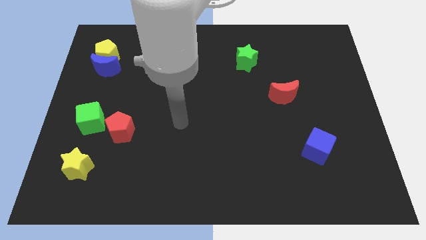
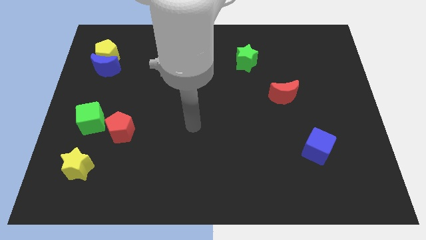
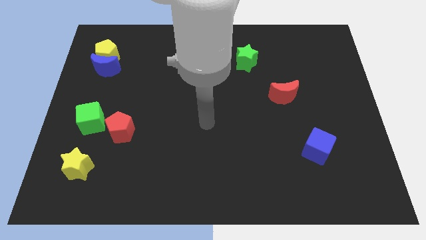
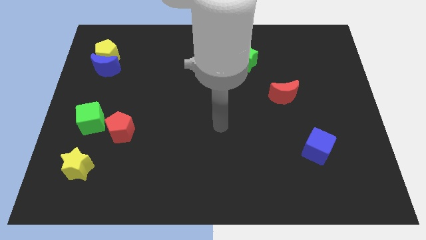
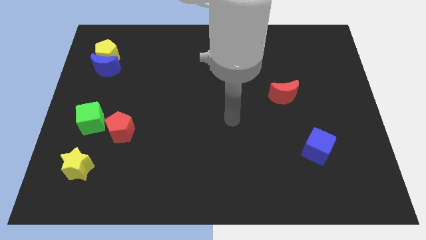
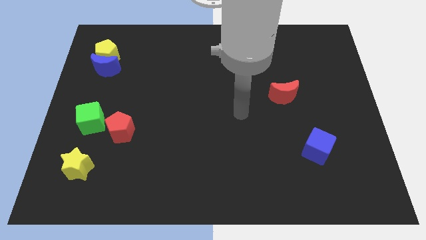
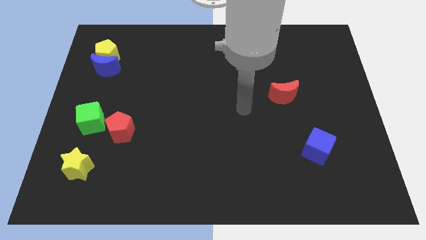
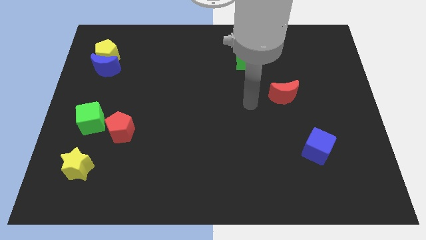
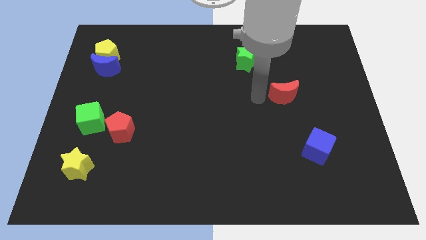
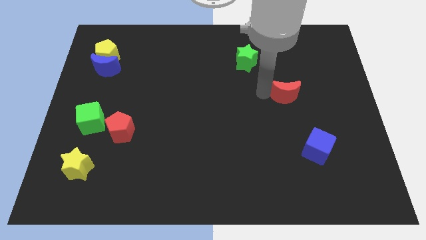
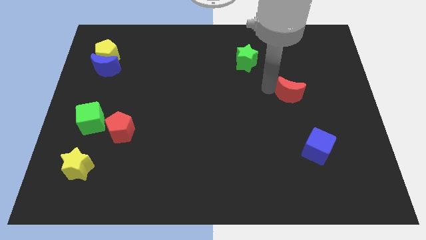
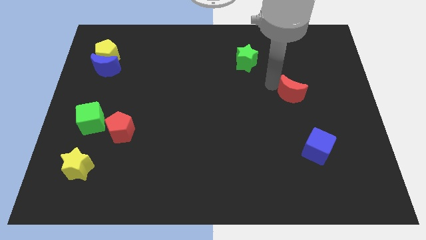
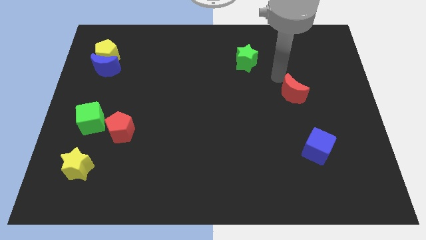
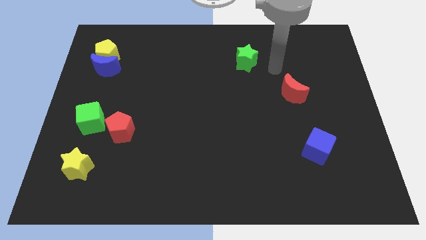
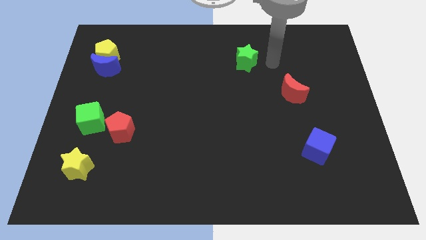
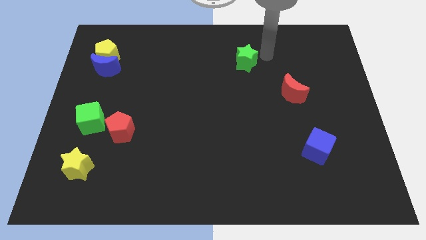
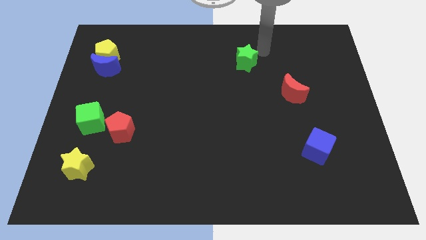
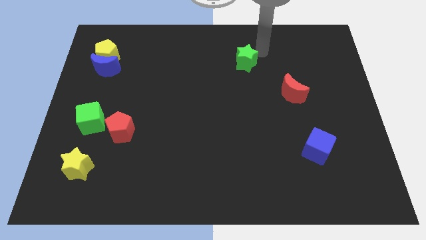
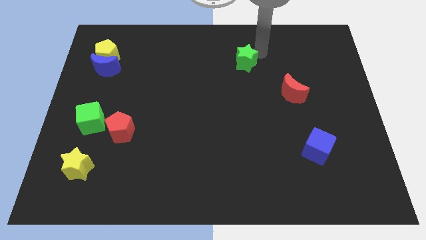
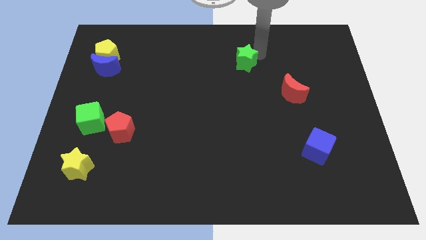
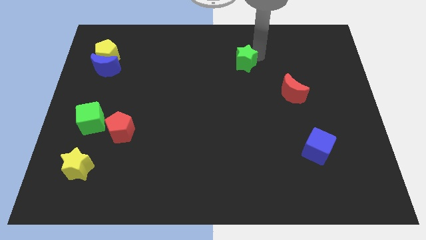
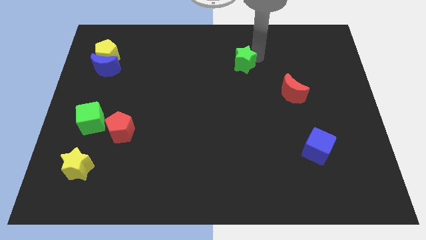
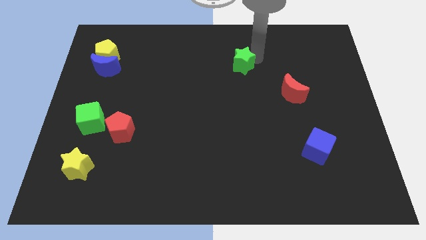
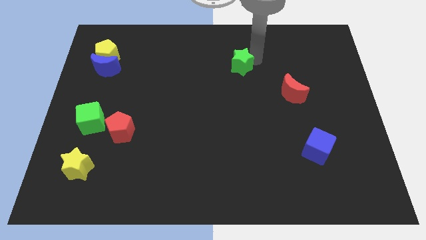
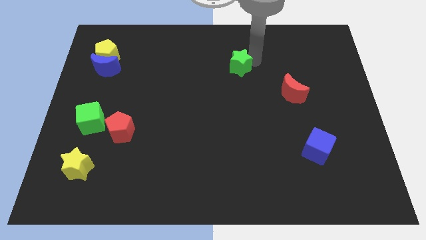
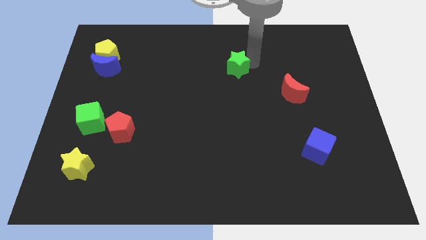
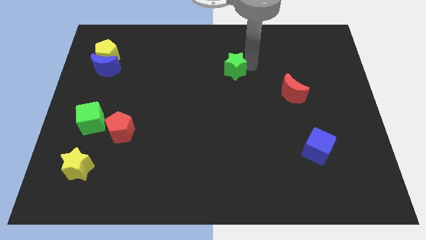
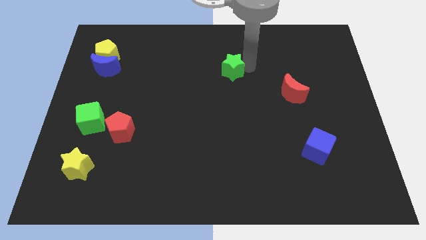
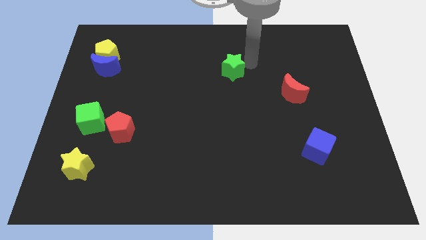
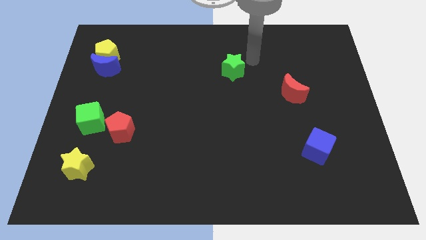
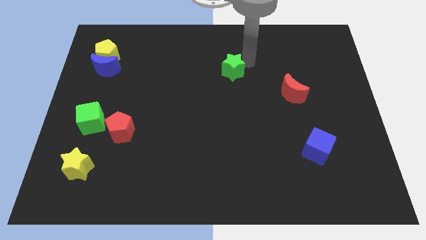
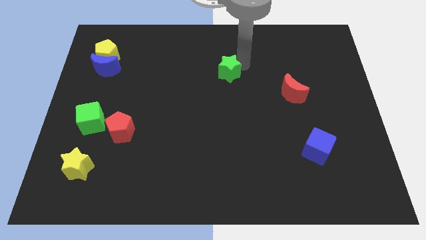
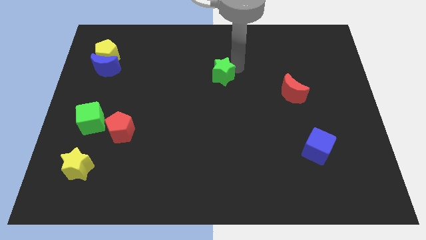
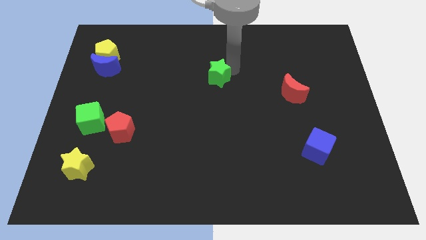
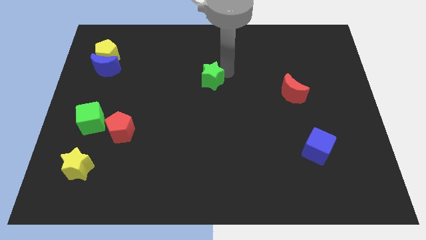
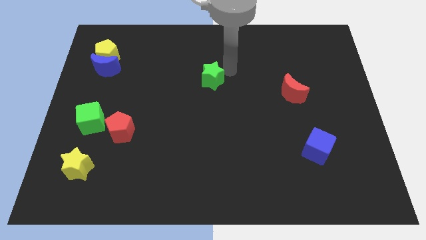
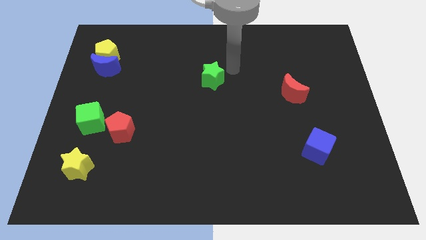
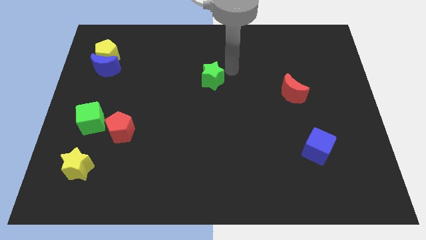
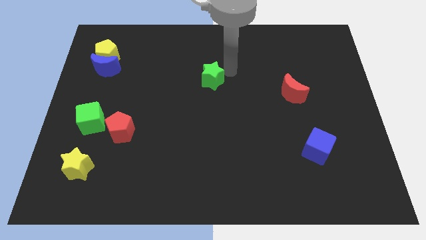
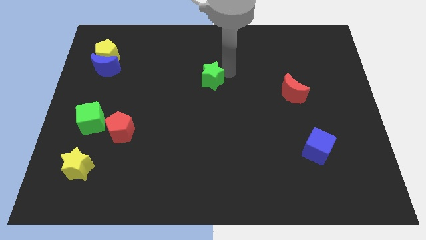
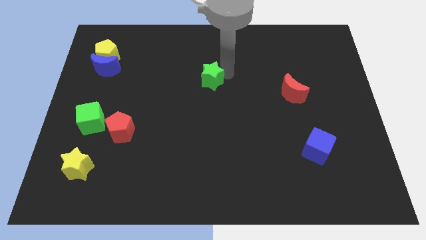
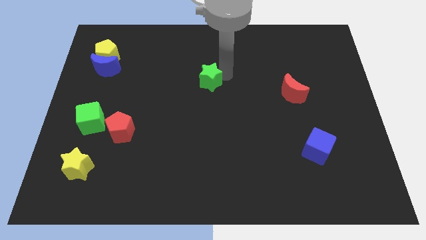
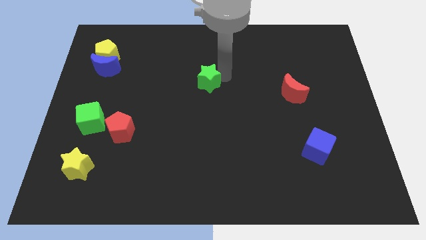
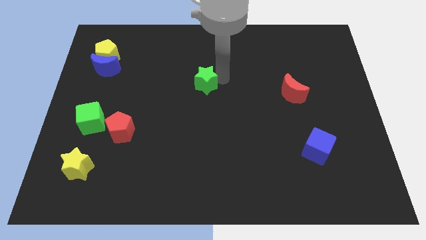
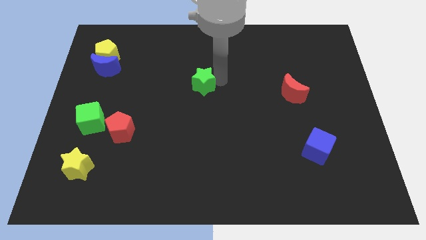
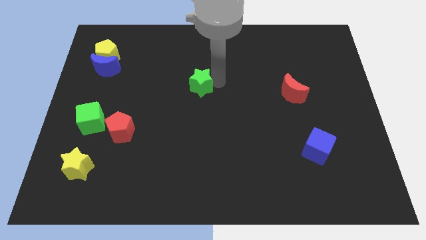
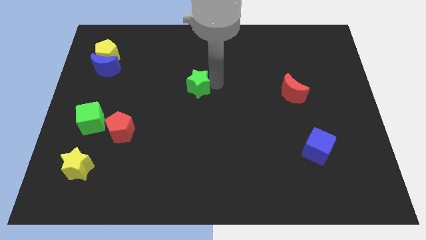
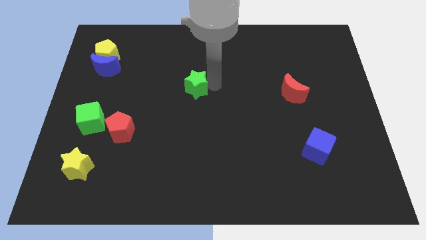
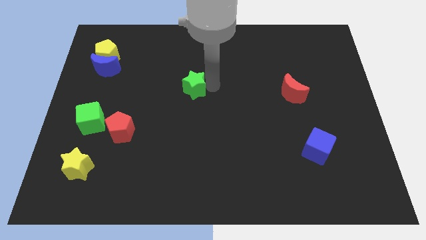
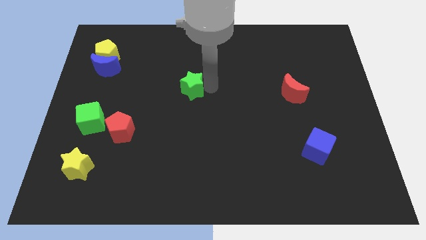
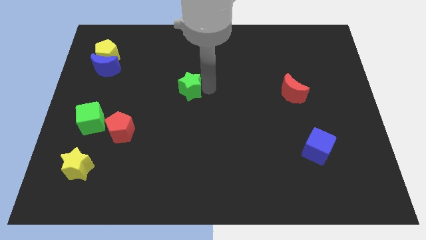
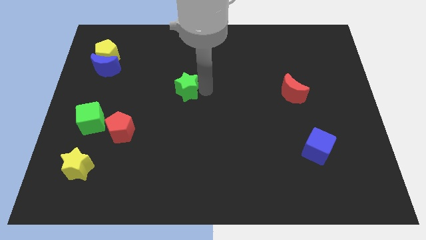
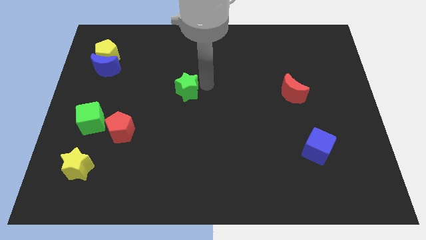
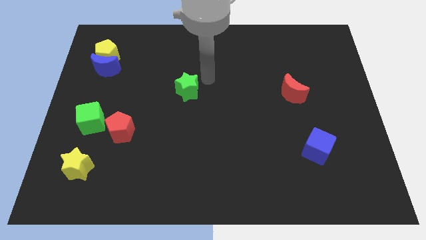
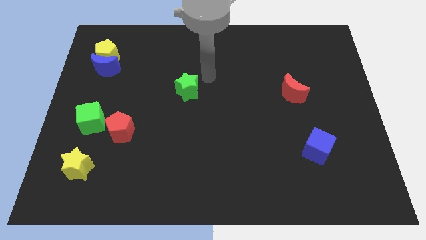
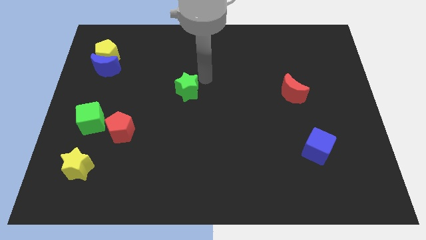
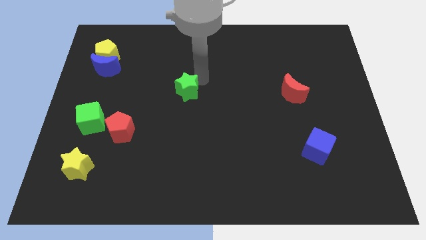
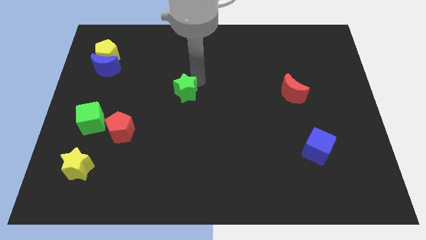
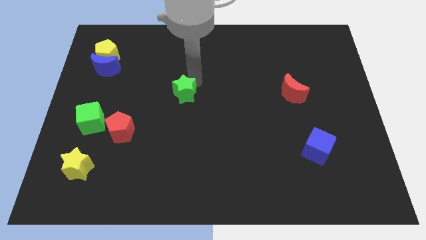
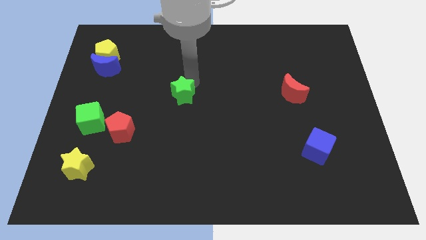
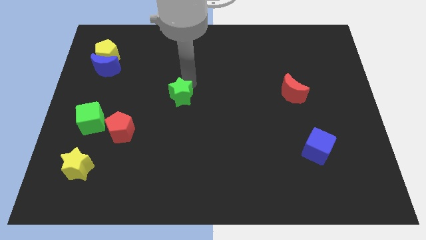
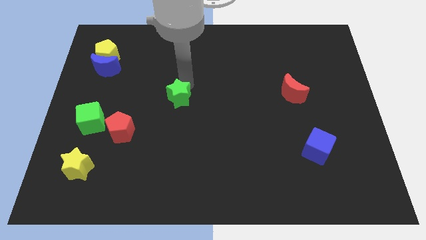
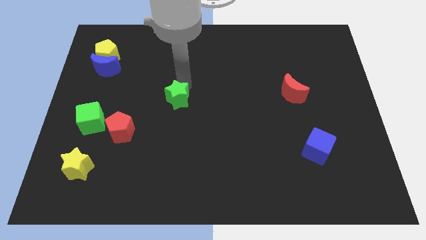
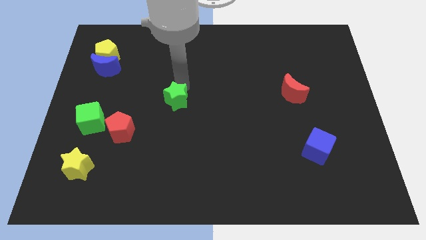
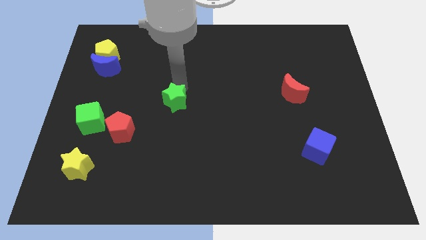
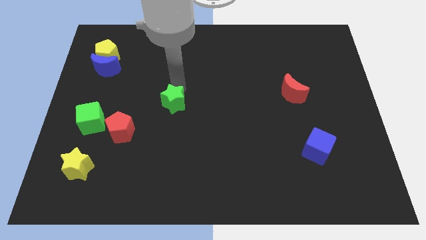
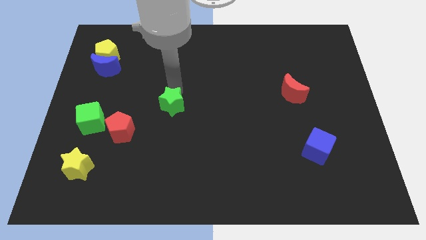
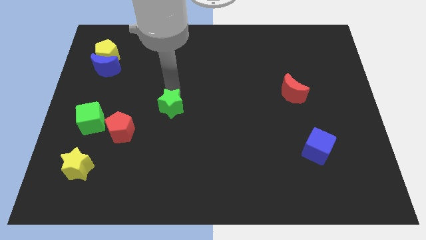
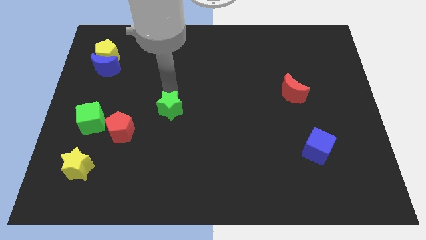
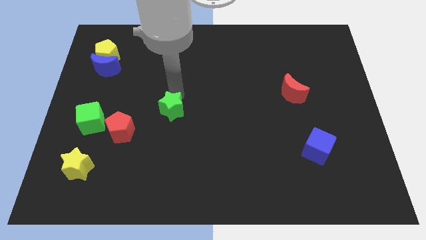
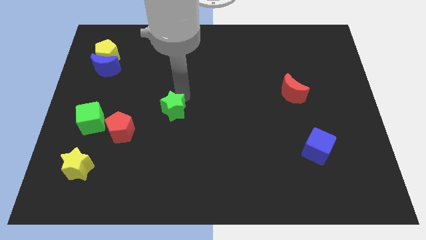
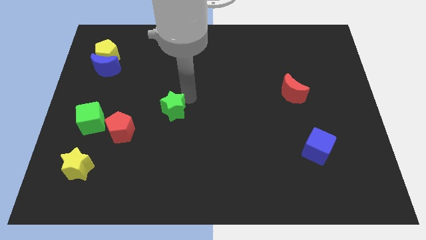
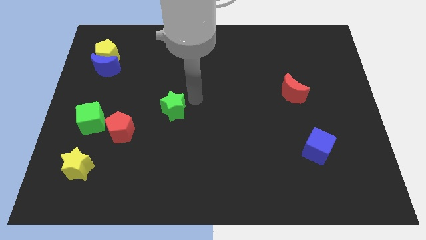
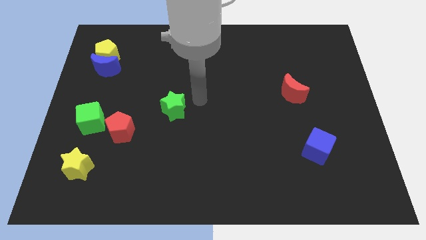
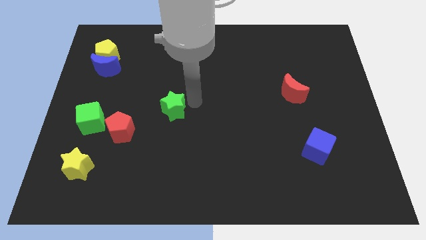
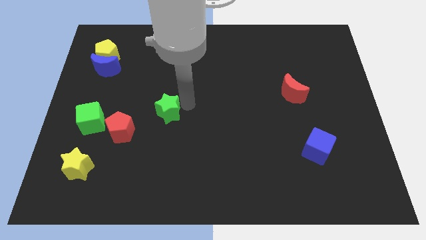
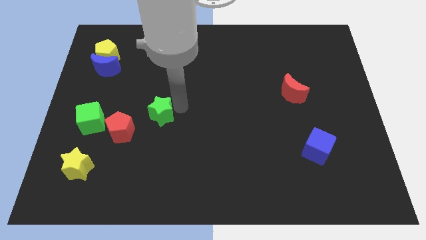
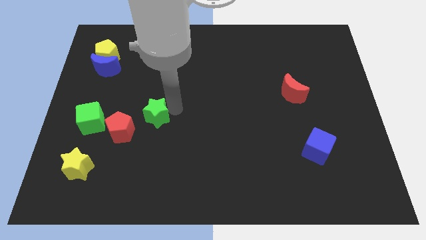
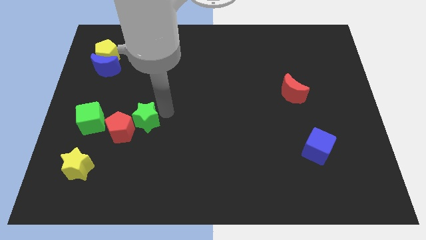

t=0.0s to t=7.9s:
put the green star towards the red pentagon
